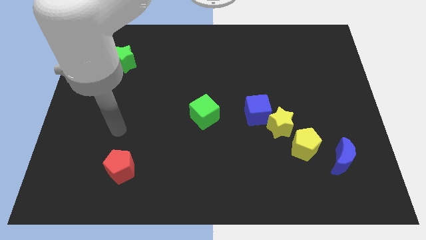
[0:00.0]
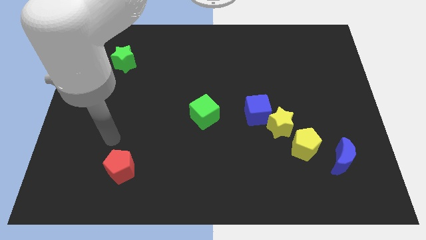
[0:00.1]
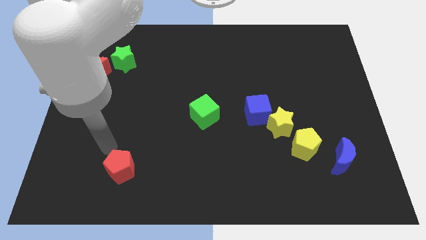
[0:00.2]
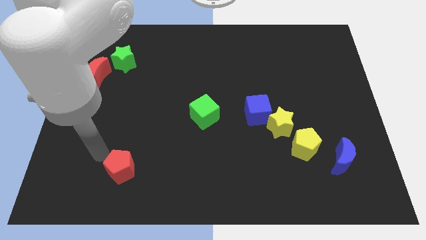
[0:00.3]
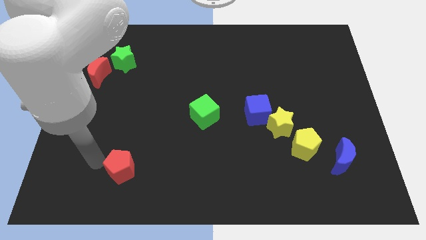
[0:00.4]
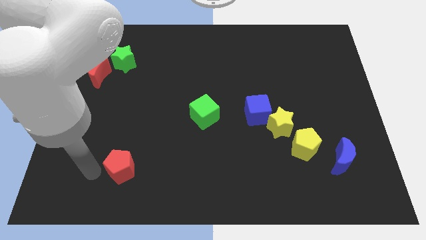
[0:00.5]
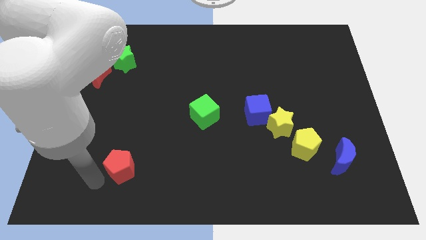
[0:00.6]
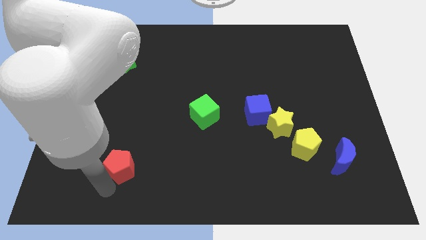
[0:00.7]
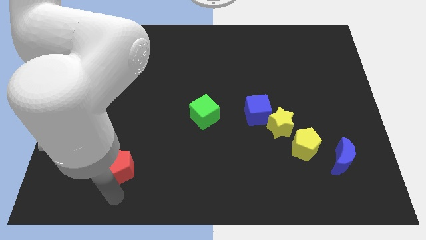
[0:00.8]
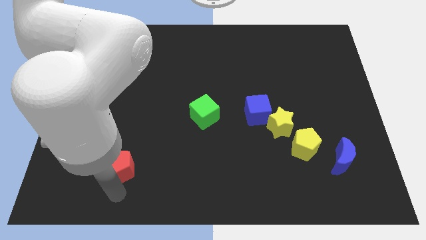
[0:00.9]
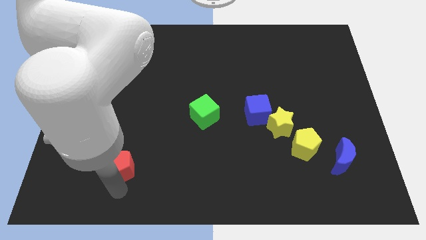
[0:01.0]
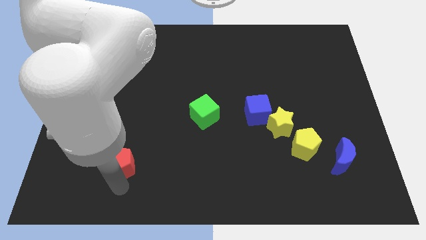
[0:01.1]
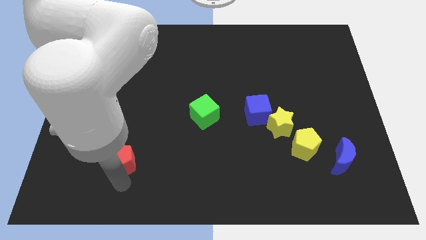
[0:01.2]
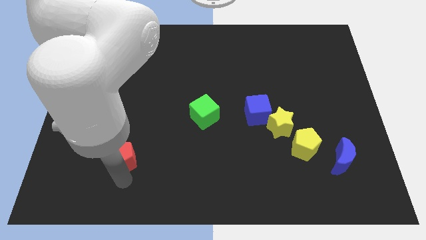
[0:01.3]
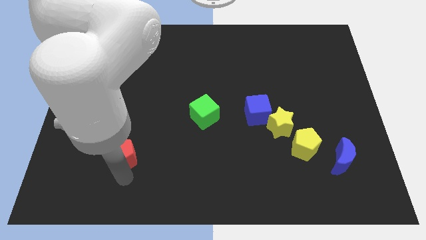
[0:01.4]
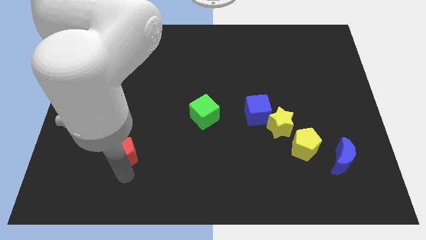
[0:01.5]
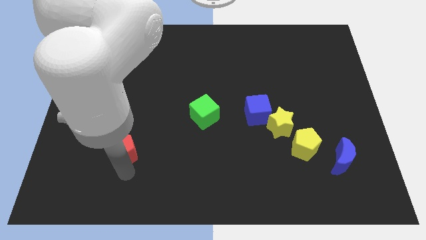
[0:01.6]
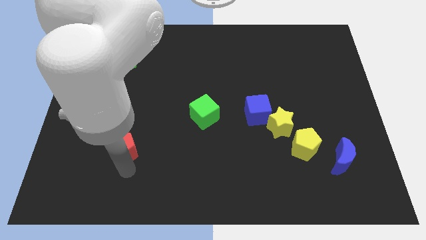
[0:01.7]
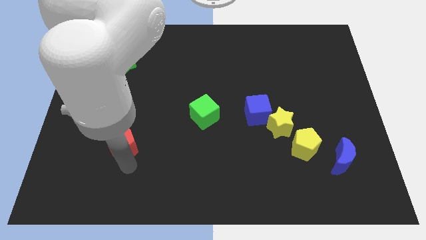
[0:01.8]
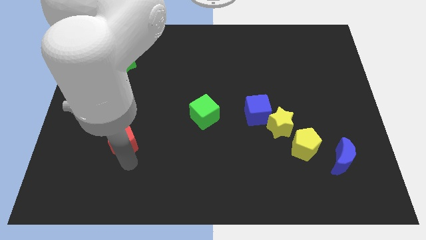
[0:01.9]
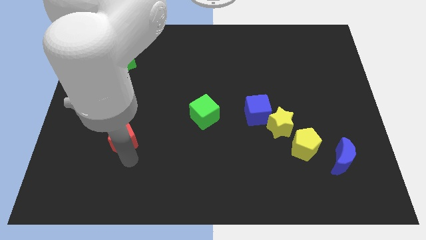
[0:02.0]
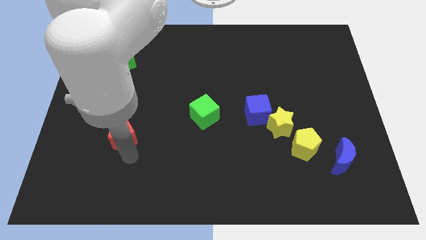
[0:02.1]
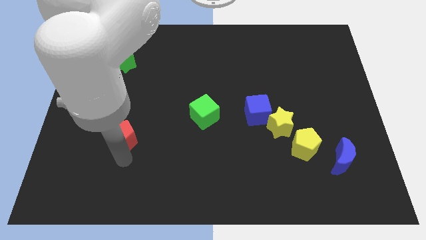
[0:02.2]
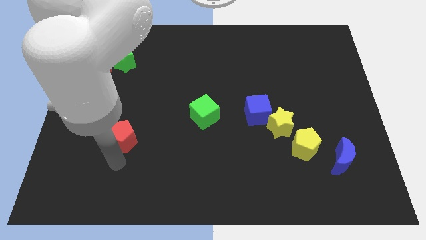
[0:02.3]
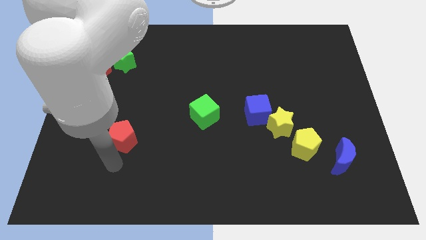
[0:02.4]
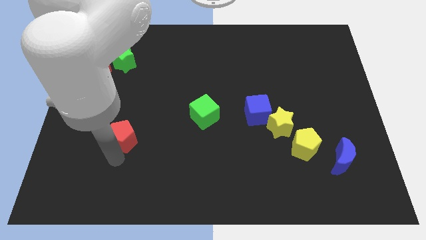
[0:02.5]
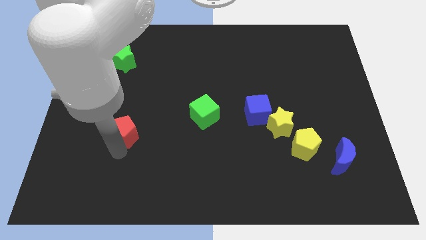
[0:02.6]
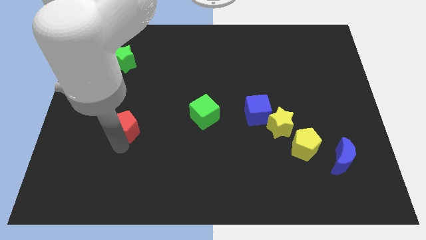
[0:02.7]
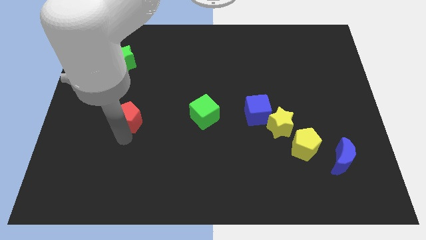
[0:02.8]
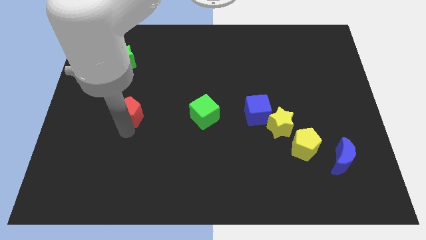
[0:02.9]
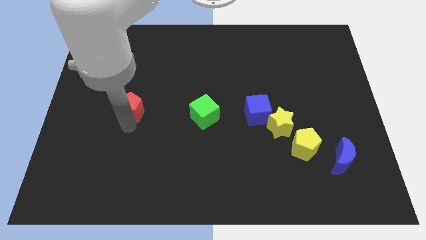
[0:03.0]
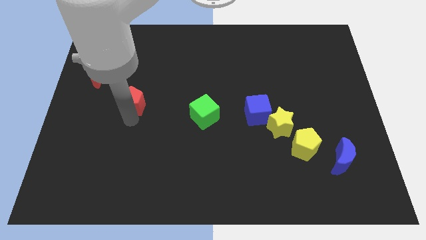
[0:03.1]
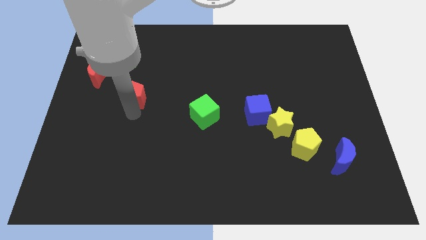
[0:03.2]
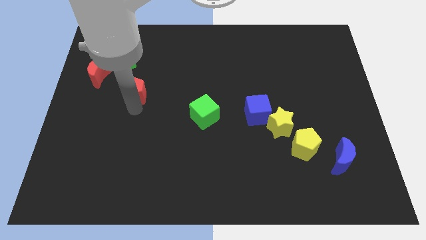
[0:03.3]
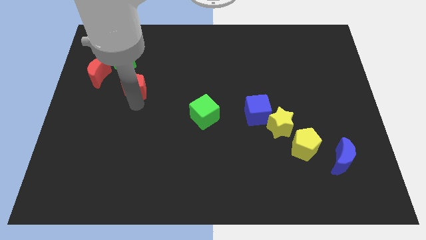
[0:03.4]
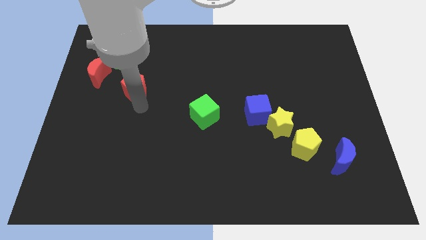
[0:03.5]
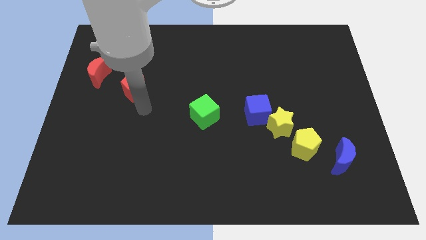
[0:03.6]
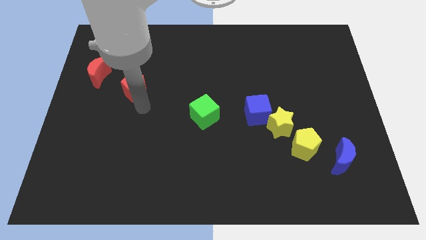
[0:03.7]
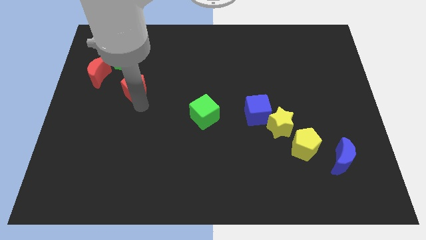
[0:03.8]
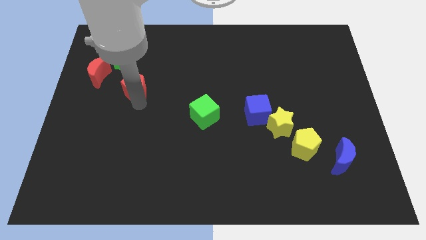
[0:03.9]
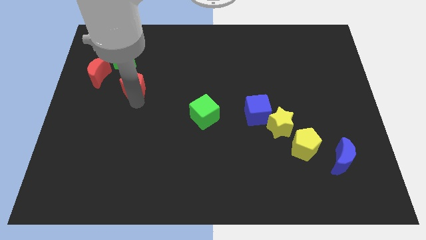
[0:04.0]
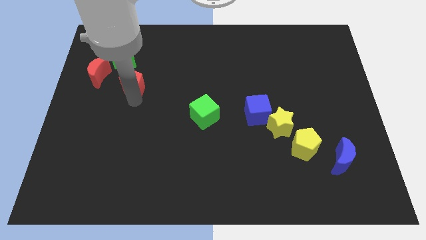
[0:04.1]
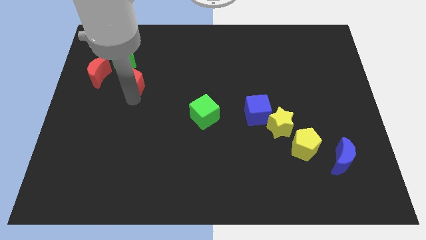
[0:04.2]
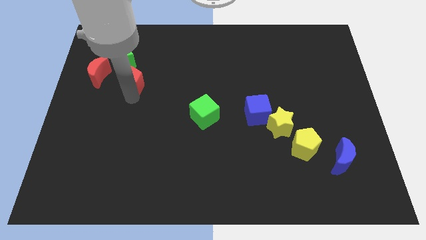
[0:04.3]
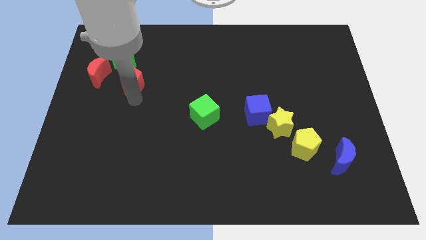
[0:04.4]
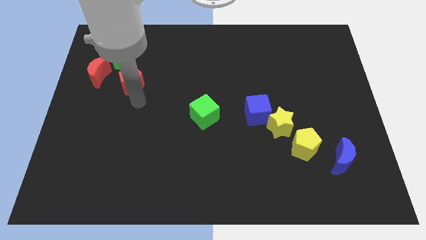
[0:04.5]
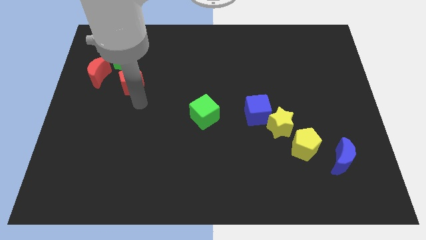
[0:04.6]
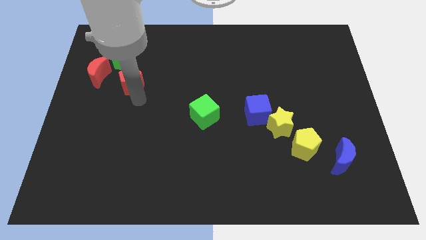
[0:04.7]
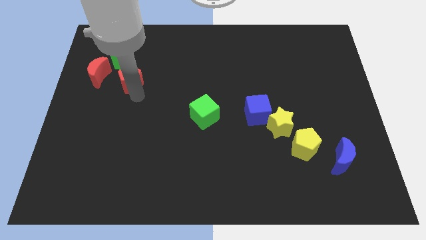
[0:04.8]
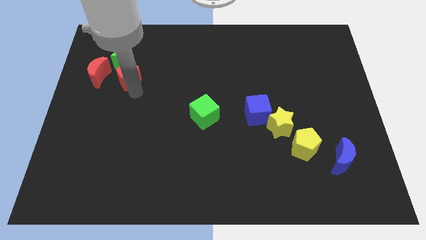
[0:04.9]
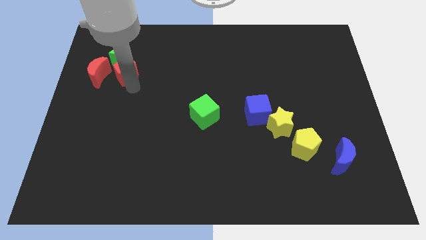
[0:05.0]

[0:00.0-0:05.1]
move the red pentagon close to the green star

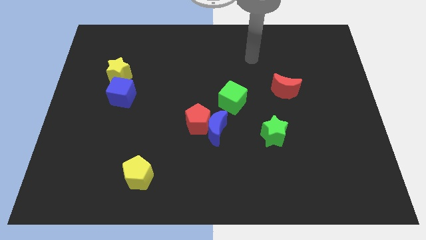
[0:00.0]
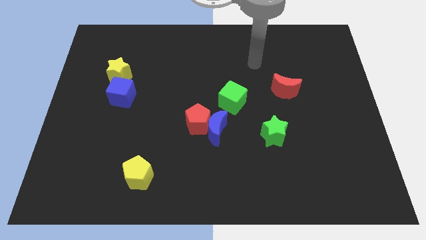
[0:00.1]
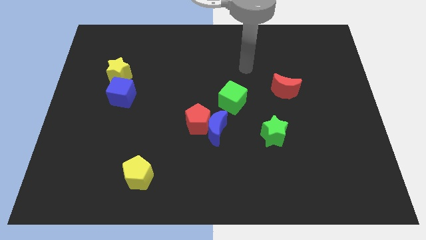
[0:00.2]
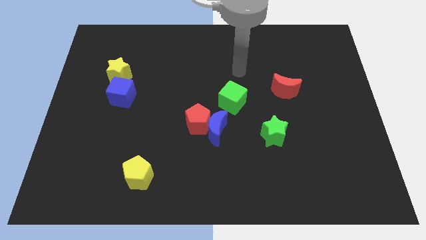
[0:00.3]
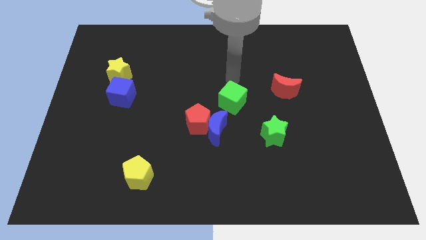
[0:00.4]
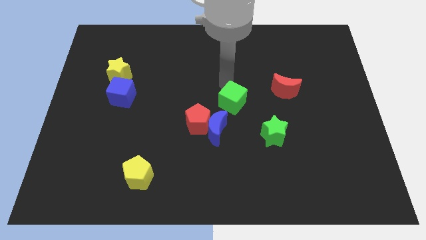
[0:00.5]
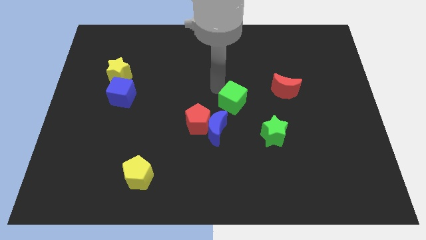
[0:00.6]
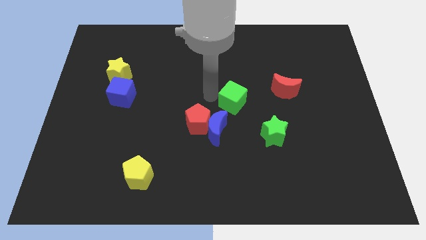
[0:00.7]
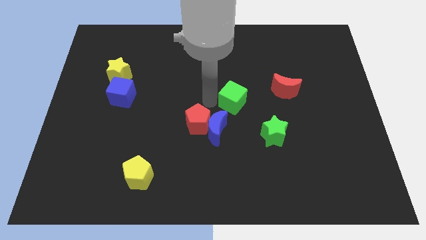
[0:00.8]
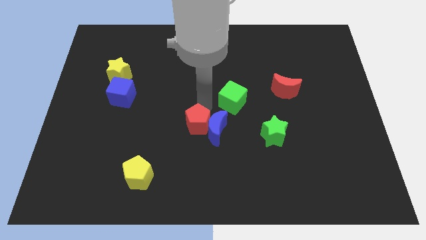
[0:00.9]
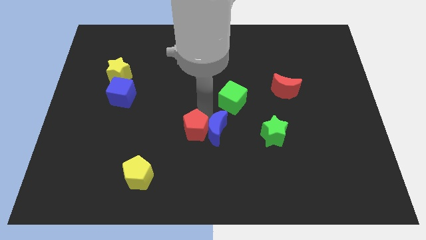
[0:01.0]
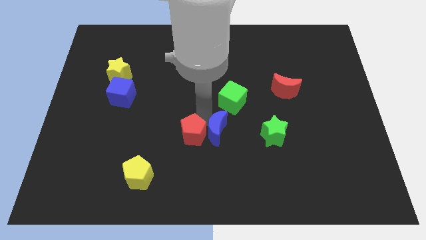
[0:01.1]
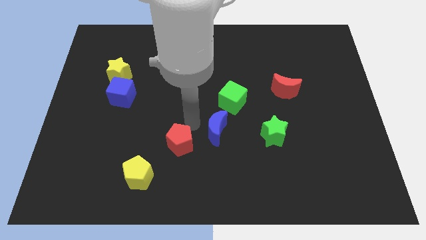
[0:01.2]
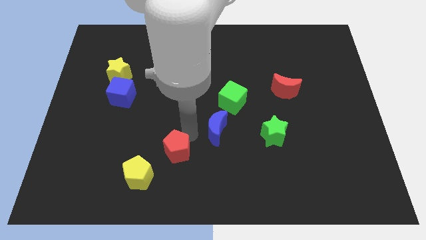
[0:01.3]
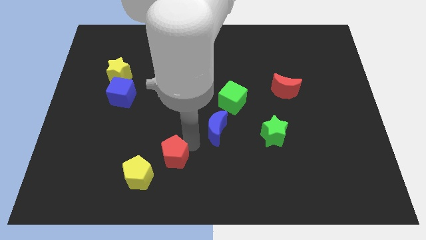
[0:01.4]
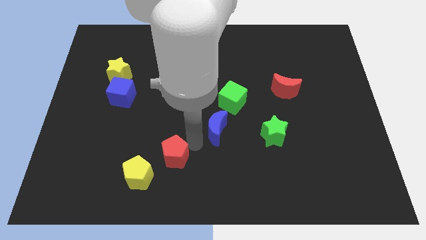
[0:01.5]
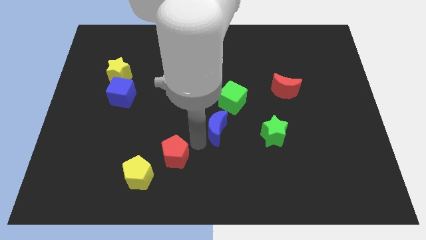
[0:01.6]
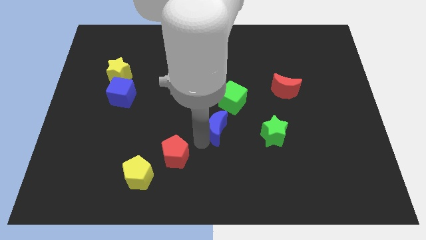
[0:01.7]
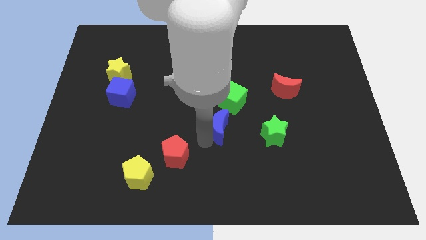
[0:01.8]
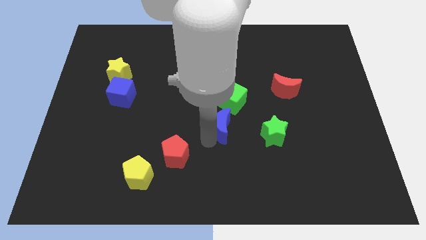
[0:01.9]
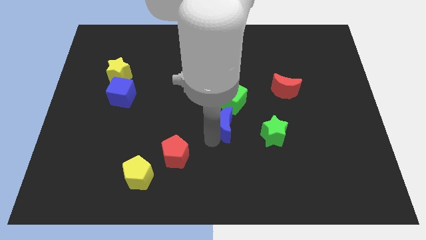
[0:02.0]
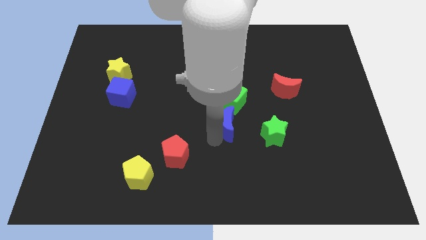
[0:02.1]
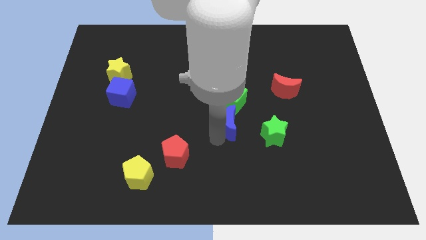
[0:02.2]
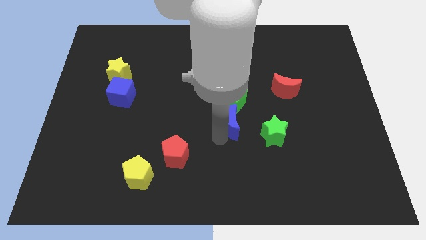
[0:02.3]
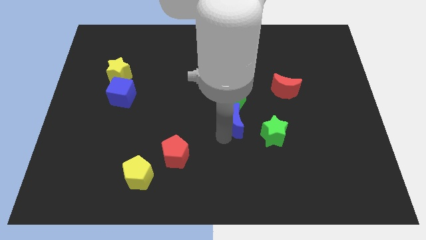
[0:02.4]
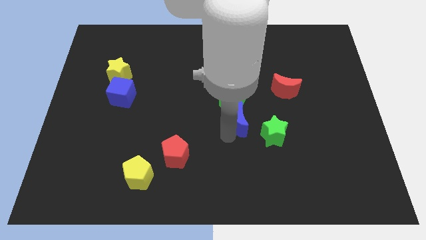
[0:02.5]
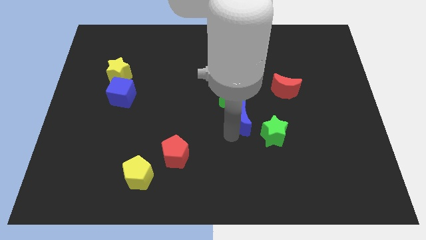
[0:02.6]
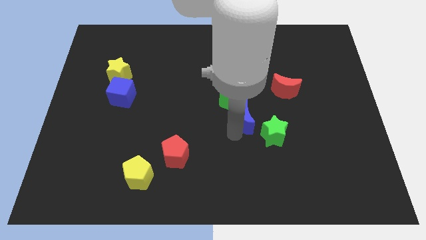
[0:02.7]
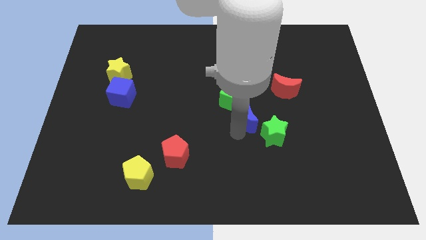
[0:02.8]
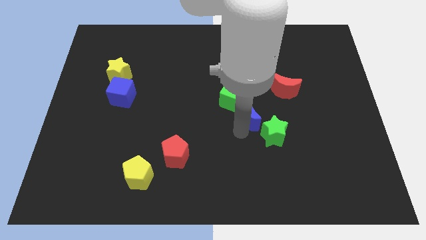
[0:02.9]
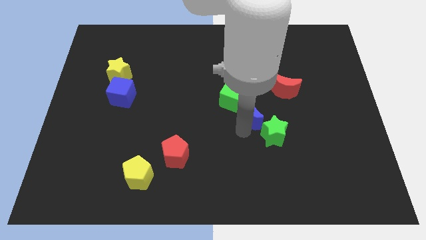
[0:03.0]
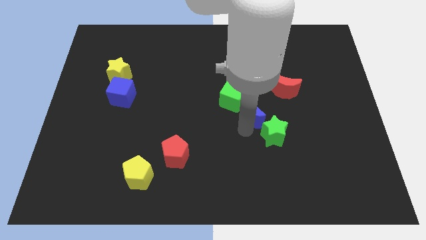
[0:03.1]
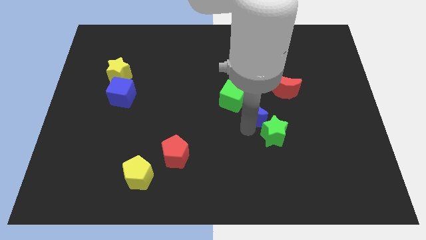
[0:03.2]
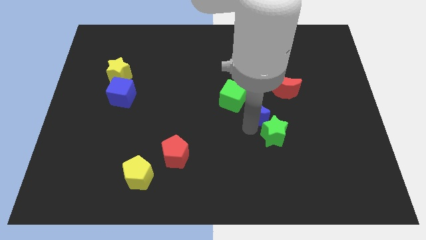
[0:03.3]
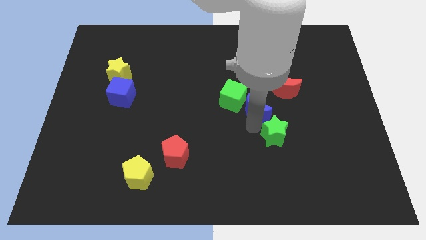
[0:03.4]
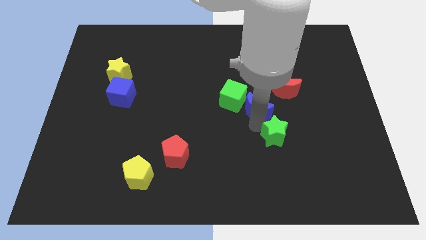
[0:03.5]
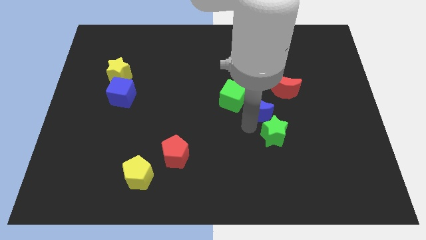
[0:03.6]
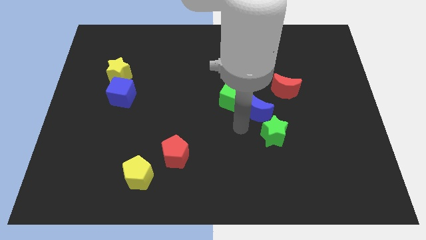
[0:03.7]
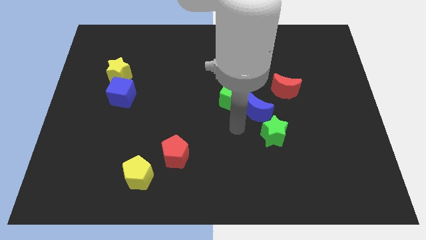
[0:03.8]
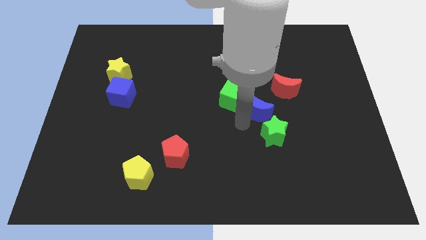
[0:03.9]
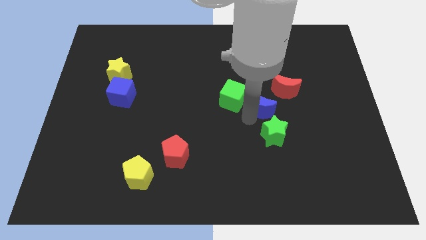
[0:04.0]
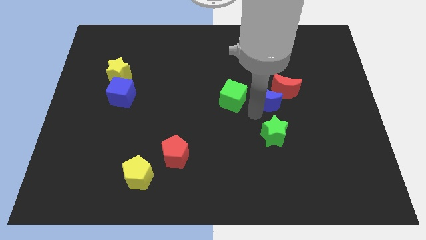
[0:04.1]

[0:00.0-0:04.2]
move the blue moon next to the red moon
